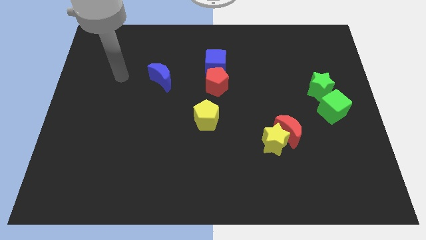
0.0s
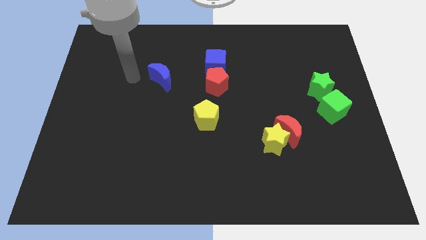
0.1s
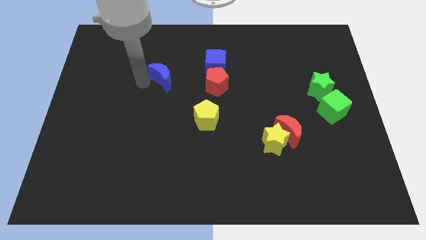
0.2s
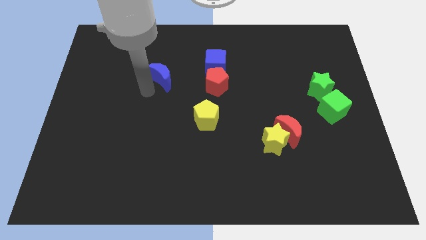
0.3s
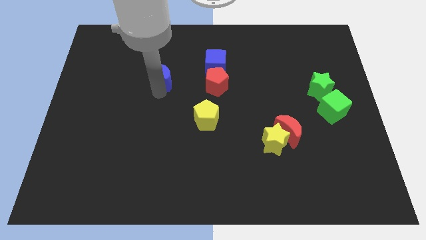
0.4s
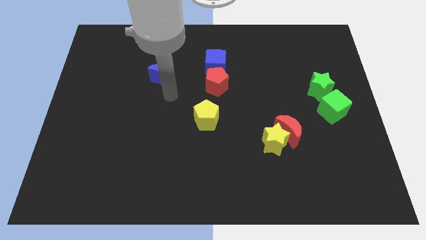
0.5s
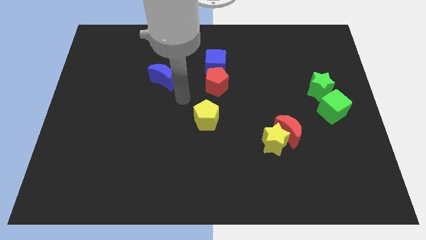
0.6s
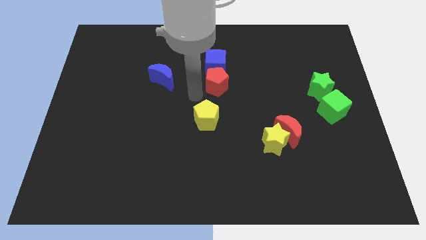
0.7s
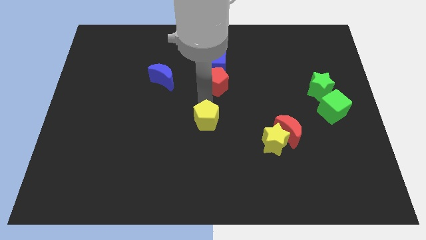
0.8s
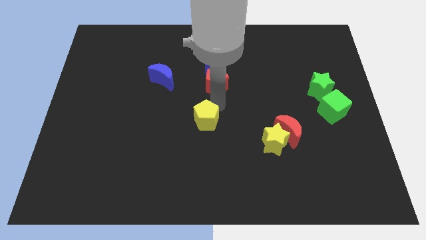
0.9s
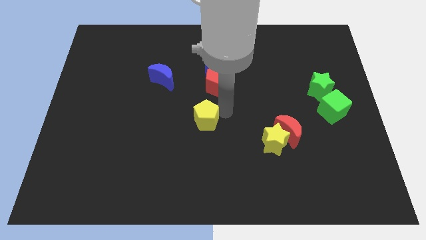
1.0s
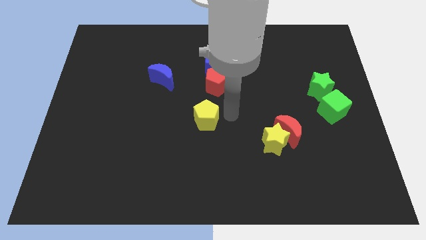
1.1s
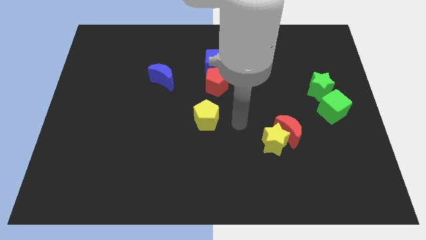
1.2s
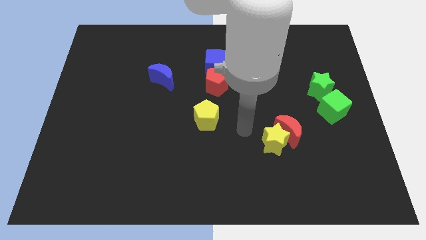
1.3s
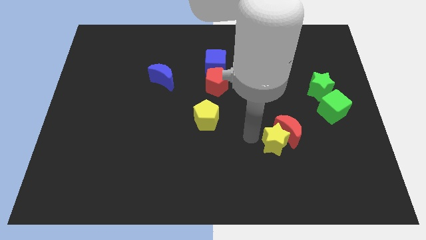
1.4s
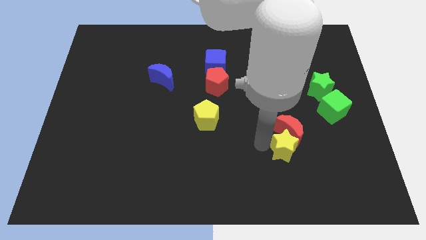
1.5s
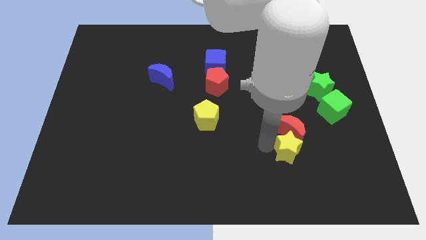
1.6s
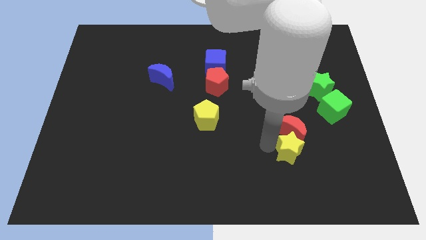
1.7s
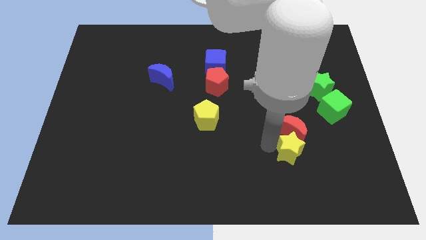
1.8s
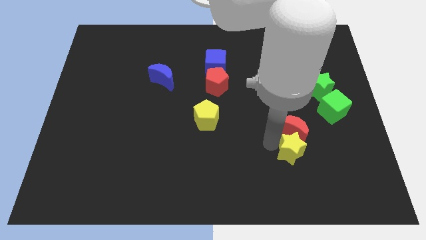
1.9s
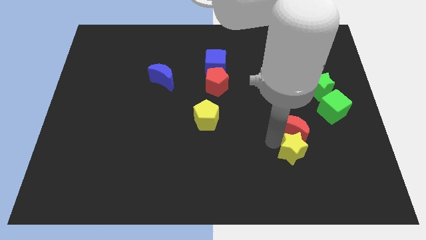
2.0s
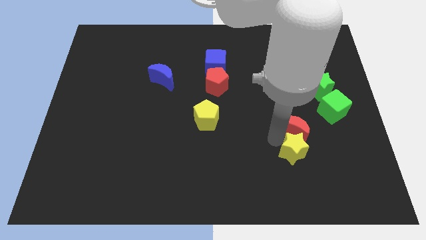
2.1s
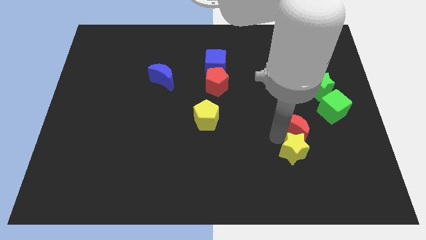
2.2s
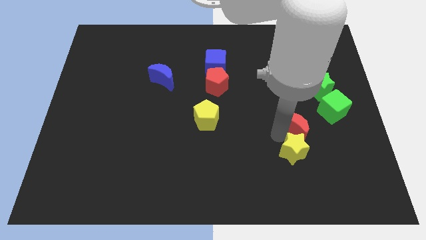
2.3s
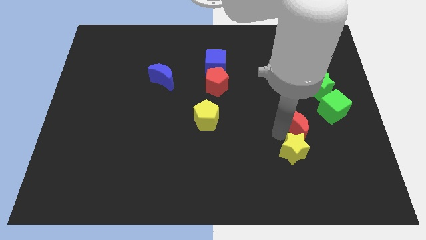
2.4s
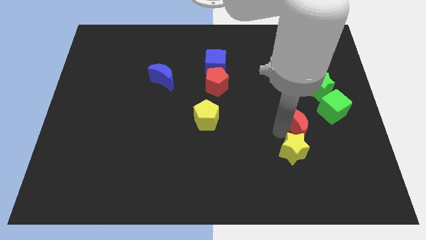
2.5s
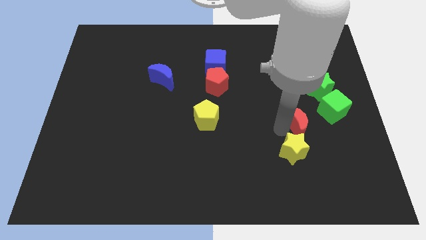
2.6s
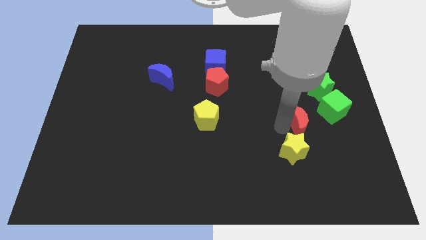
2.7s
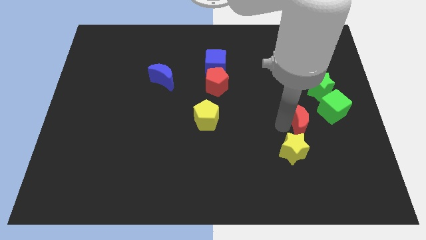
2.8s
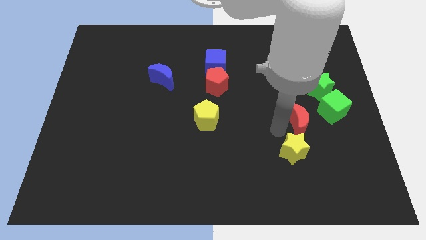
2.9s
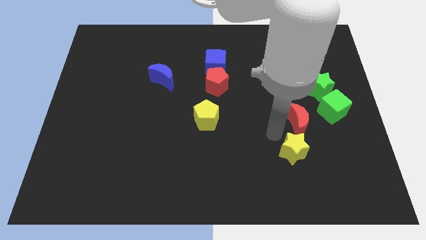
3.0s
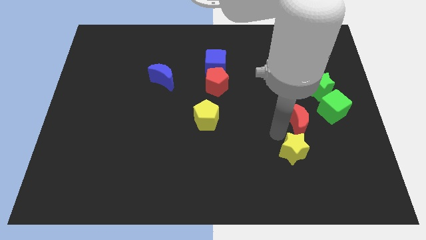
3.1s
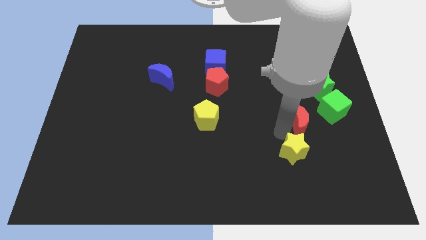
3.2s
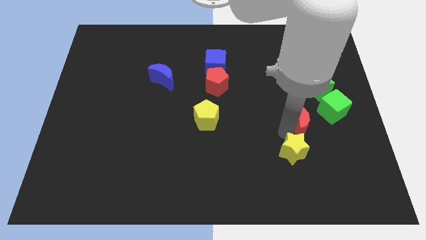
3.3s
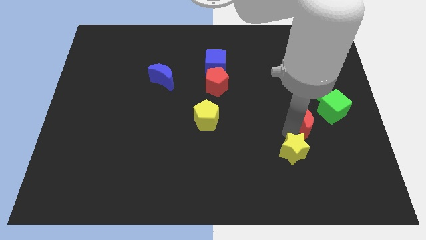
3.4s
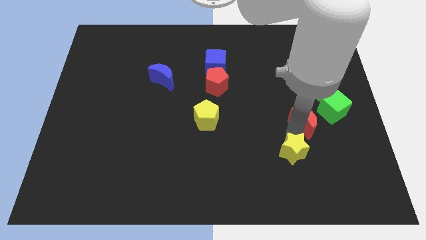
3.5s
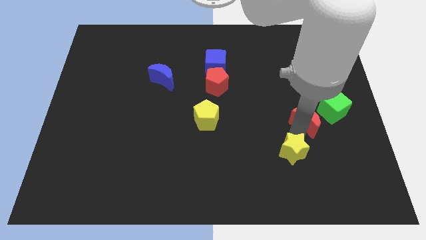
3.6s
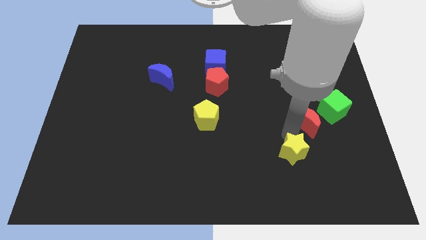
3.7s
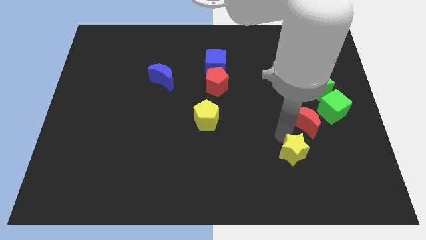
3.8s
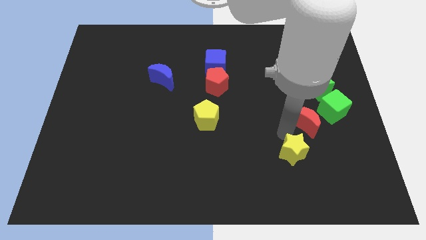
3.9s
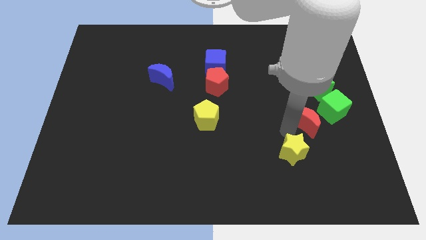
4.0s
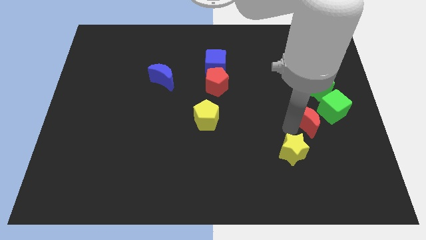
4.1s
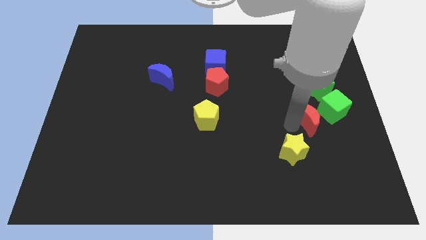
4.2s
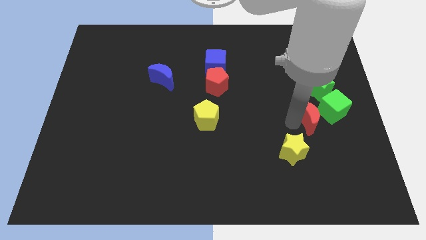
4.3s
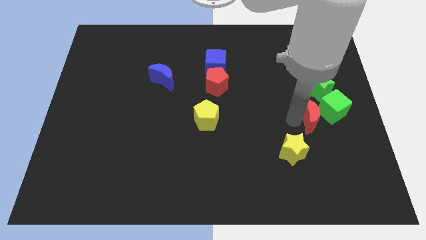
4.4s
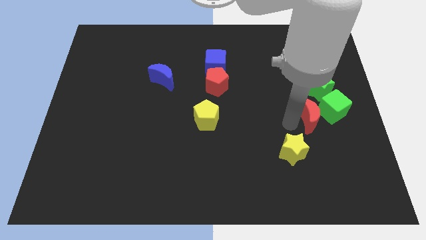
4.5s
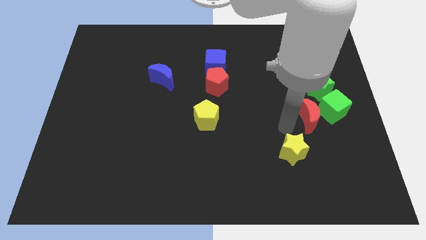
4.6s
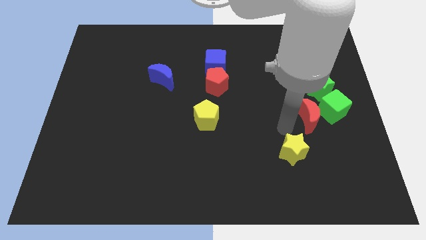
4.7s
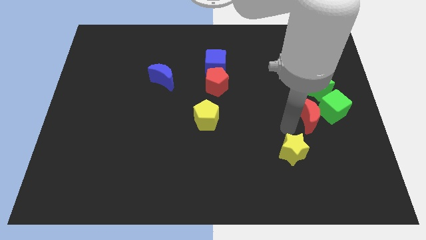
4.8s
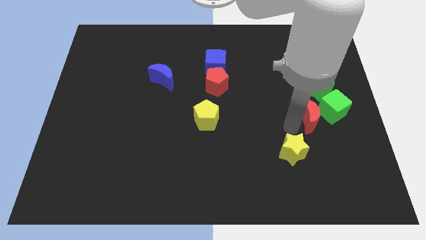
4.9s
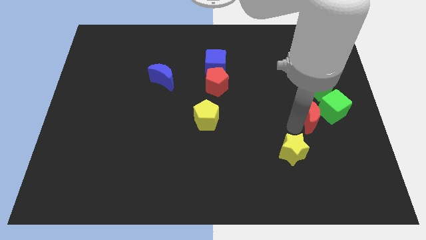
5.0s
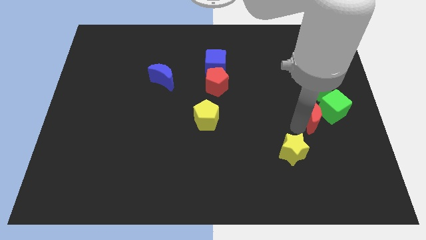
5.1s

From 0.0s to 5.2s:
move the red moon close to the green cube

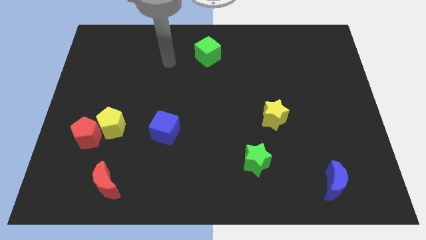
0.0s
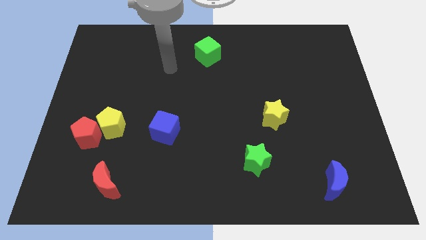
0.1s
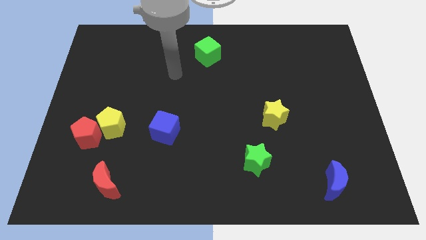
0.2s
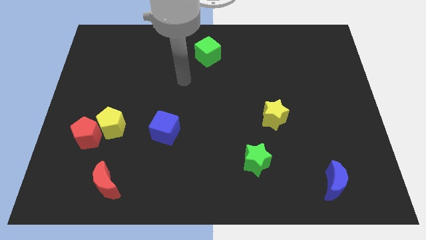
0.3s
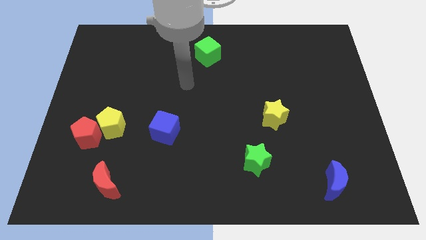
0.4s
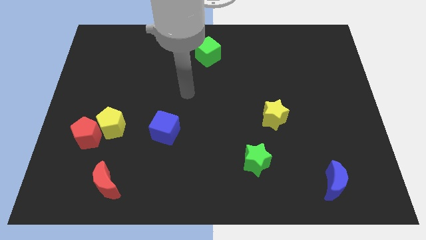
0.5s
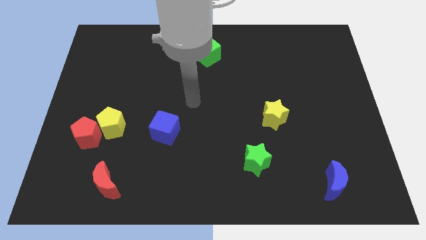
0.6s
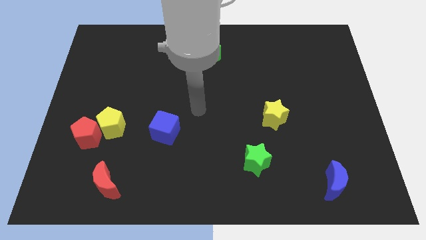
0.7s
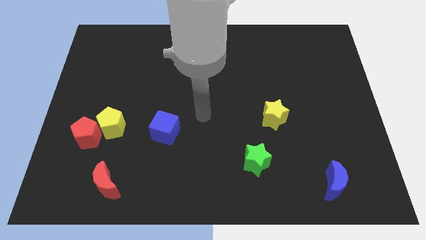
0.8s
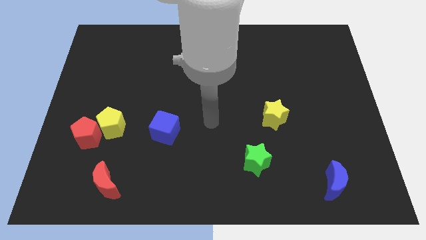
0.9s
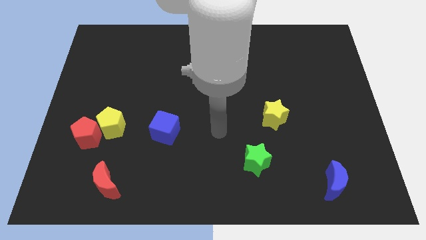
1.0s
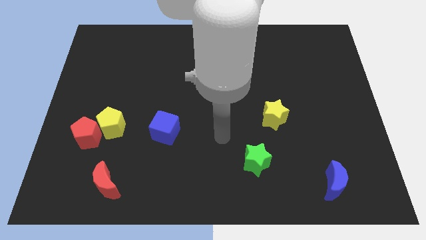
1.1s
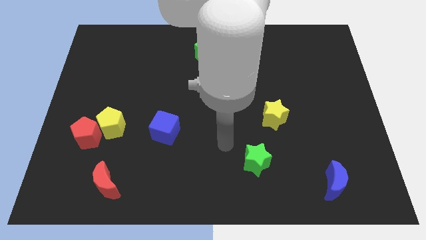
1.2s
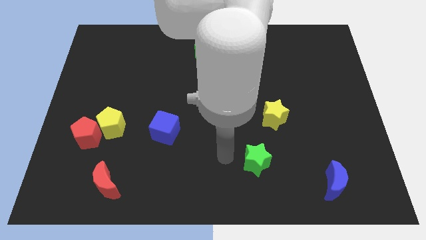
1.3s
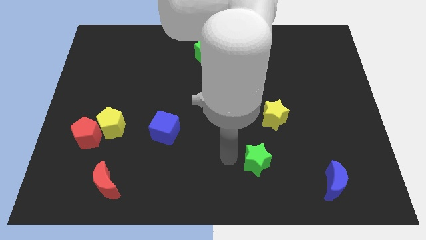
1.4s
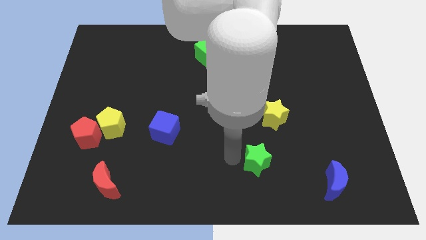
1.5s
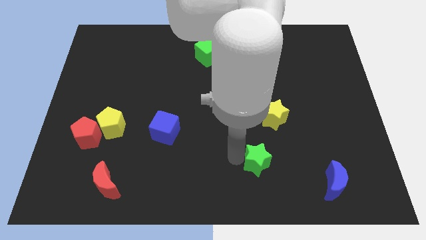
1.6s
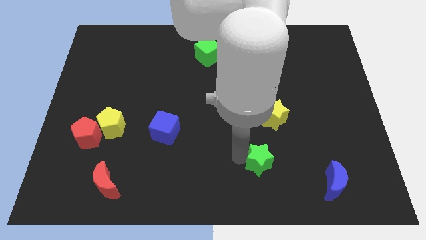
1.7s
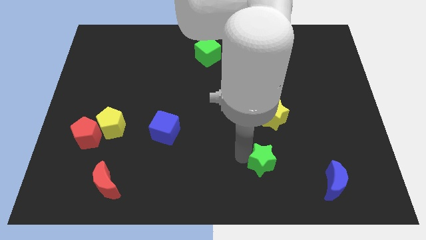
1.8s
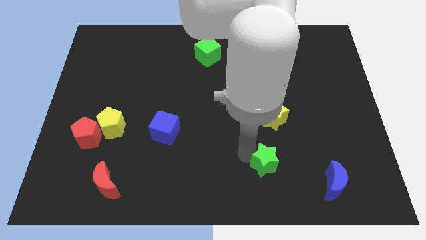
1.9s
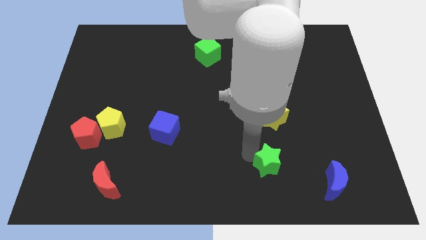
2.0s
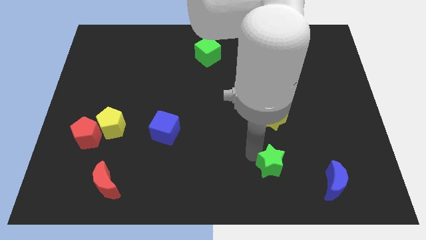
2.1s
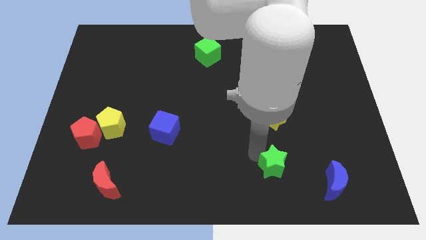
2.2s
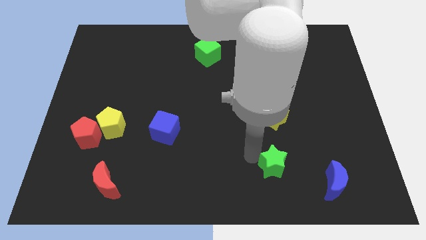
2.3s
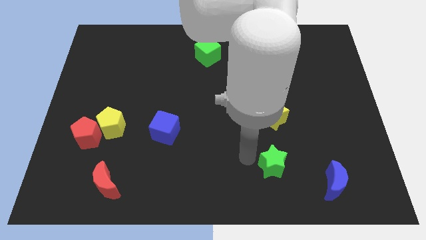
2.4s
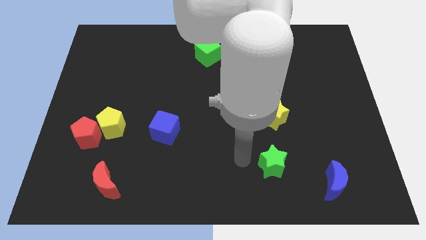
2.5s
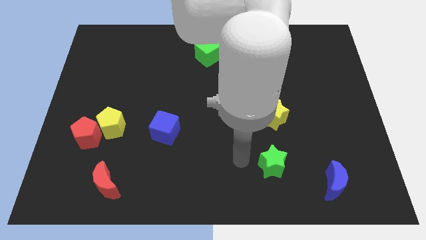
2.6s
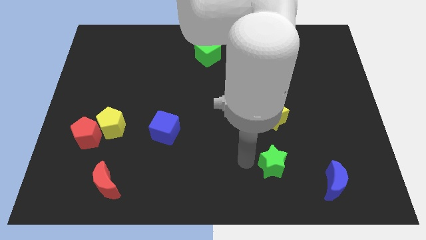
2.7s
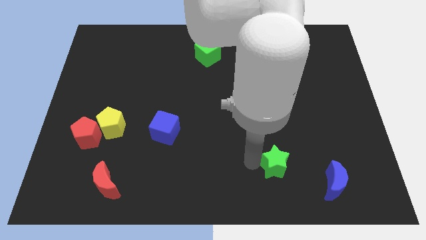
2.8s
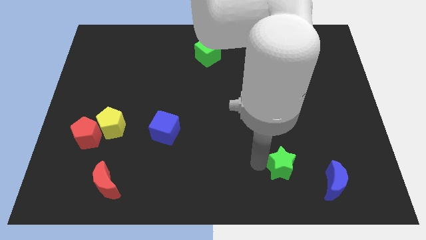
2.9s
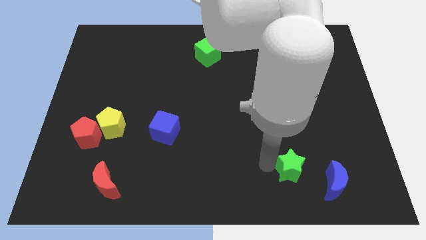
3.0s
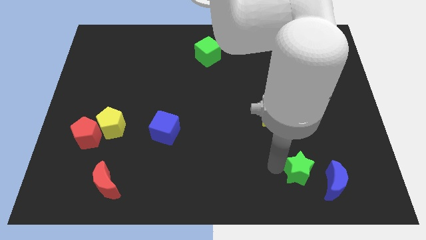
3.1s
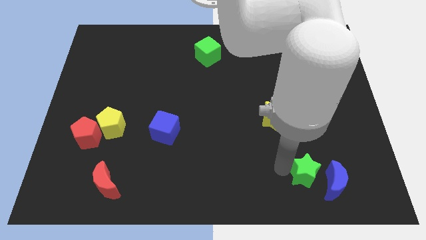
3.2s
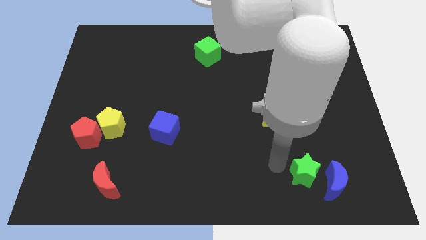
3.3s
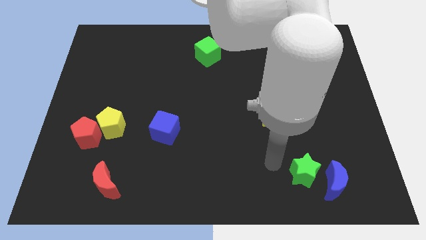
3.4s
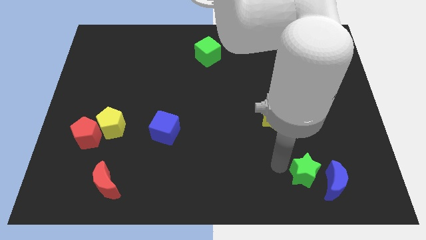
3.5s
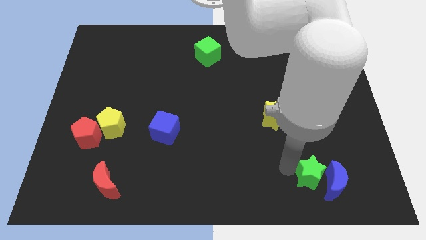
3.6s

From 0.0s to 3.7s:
put the green star to the blue moon
